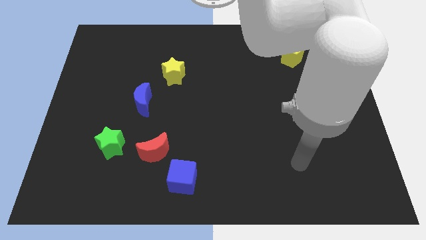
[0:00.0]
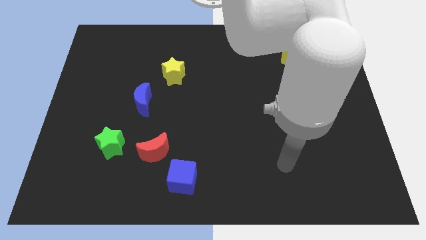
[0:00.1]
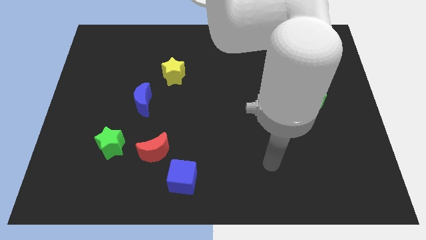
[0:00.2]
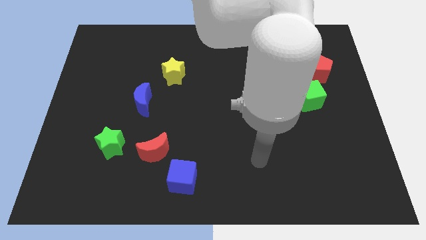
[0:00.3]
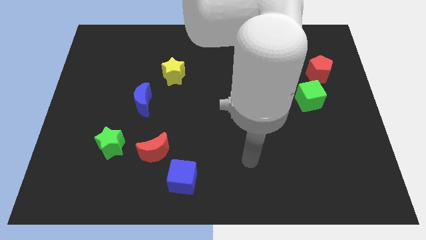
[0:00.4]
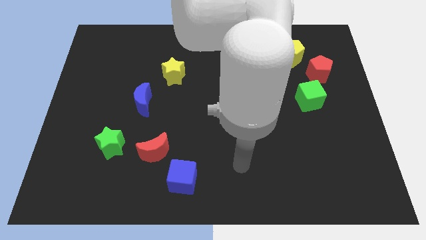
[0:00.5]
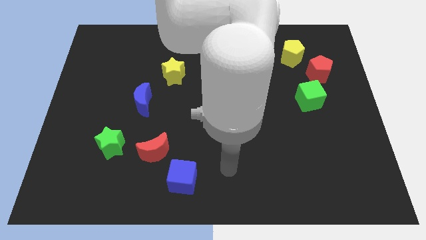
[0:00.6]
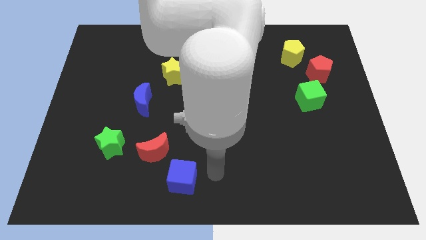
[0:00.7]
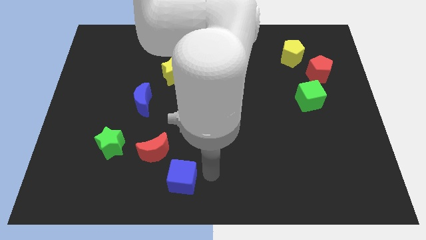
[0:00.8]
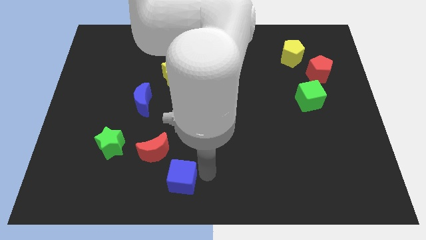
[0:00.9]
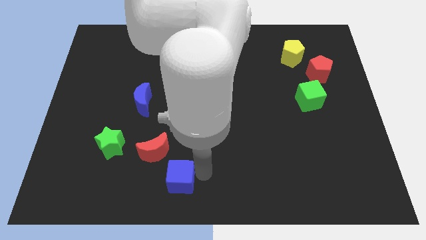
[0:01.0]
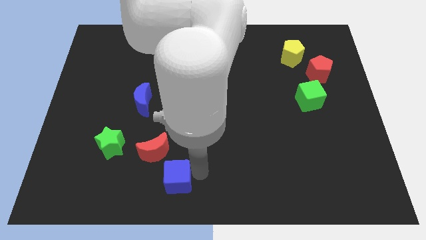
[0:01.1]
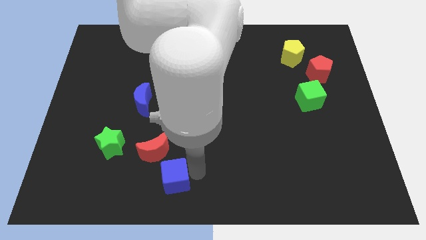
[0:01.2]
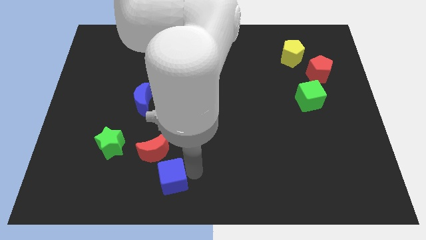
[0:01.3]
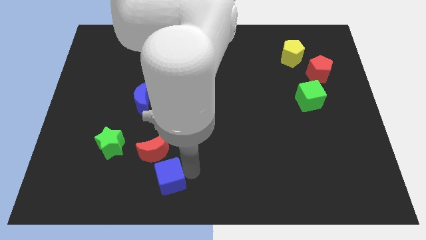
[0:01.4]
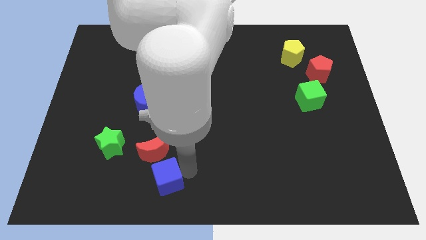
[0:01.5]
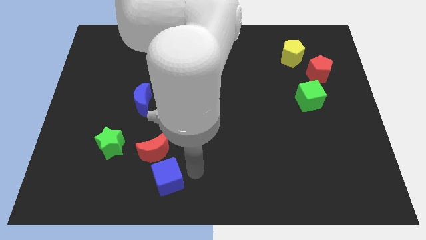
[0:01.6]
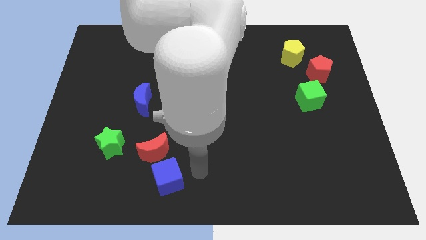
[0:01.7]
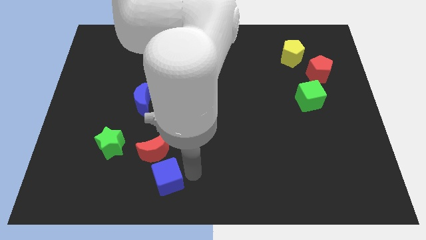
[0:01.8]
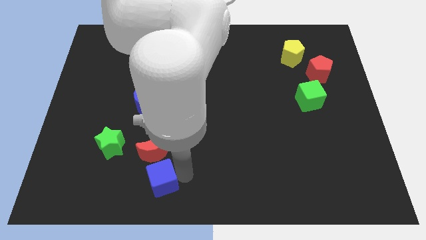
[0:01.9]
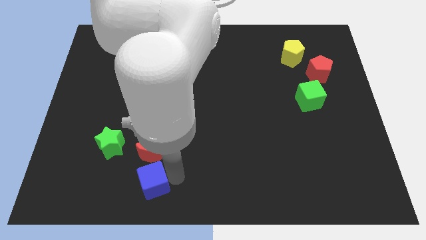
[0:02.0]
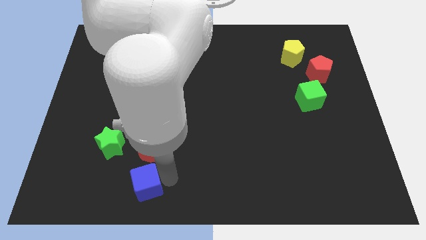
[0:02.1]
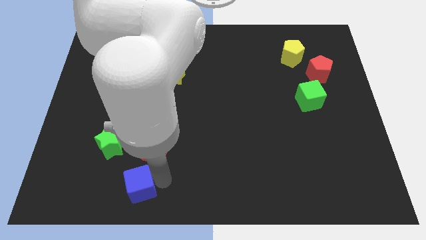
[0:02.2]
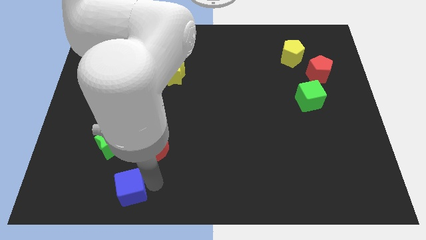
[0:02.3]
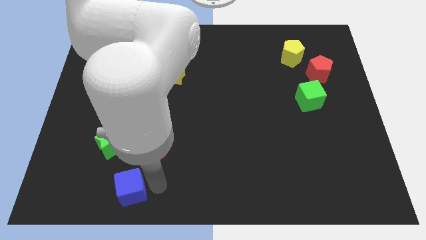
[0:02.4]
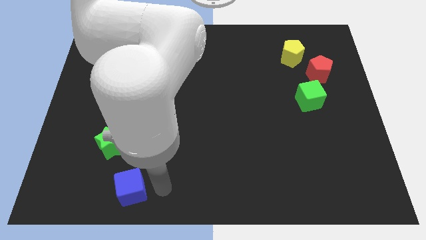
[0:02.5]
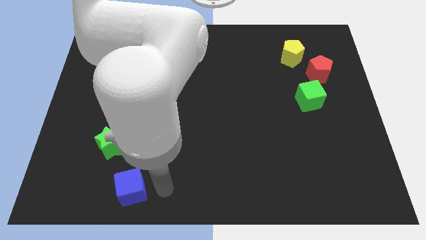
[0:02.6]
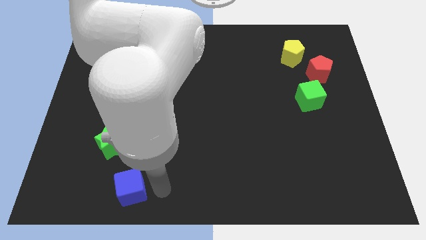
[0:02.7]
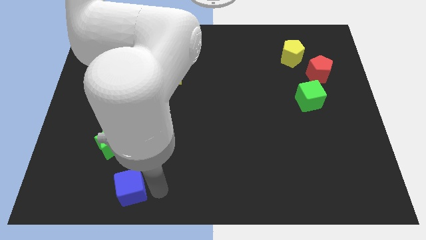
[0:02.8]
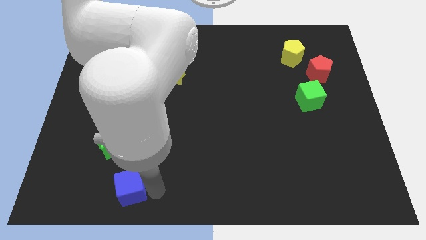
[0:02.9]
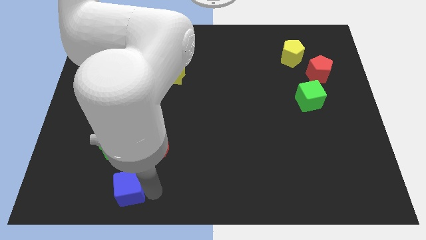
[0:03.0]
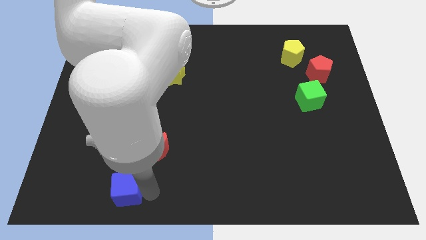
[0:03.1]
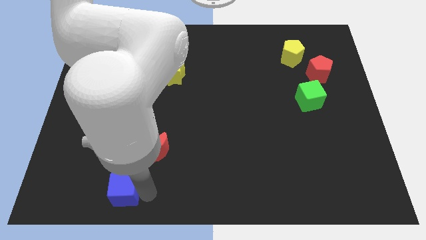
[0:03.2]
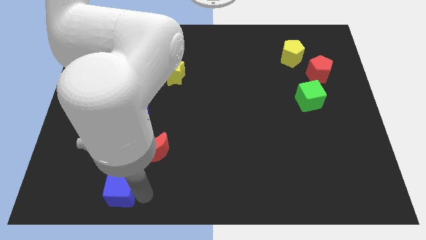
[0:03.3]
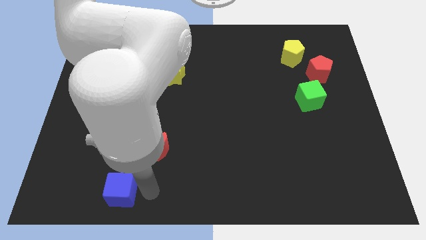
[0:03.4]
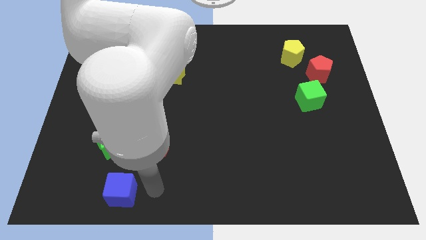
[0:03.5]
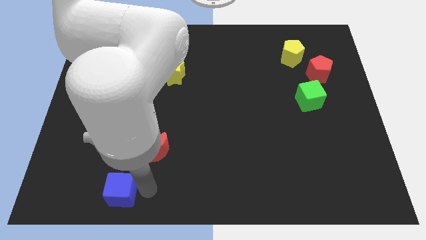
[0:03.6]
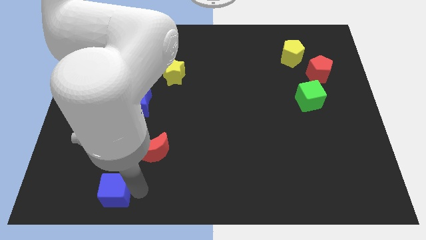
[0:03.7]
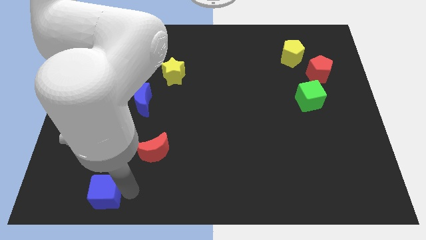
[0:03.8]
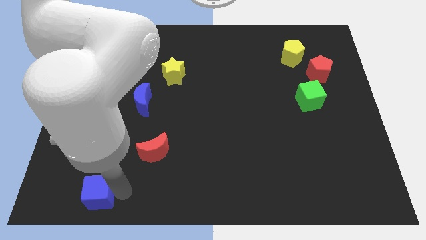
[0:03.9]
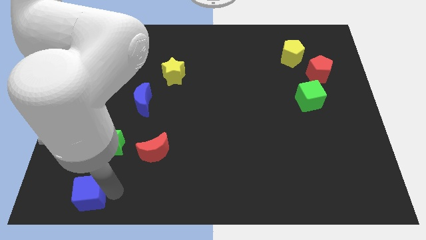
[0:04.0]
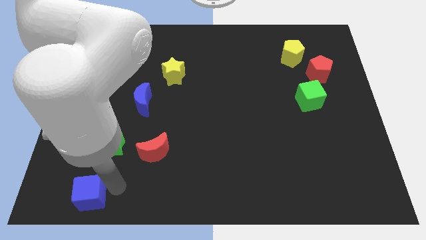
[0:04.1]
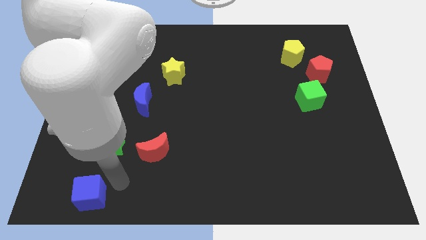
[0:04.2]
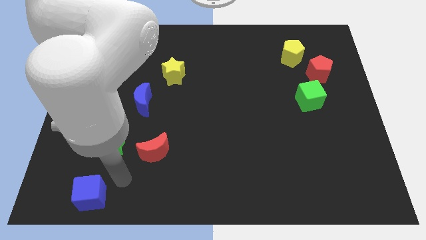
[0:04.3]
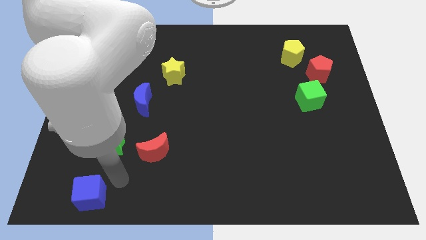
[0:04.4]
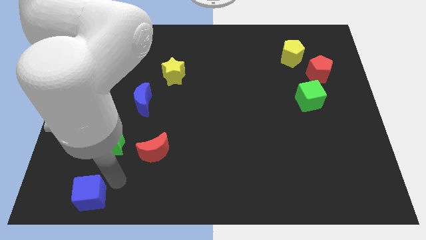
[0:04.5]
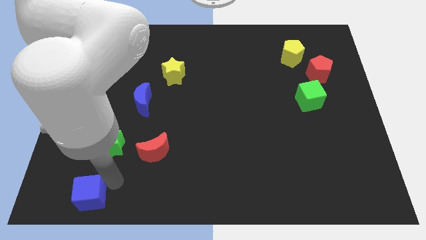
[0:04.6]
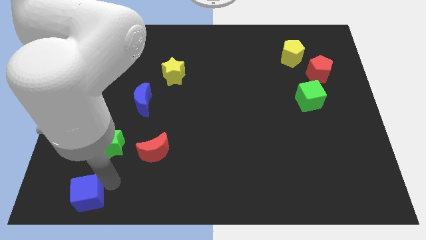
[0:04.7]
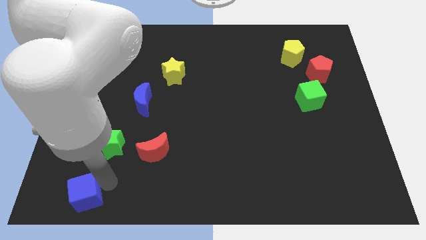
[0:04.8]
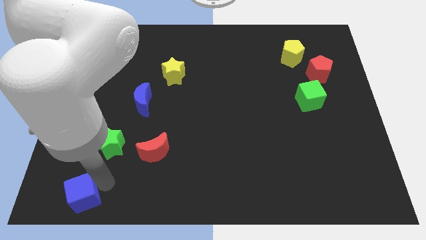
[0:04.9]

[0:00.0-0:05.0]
push the blue cube to the bottom left

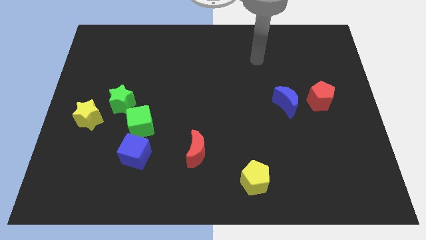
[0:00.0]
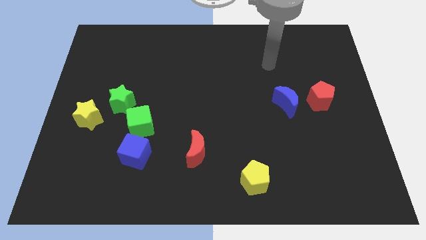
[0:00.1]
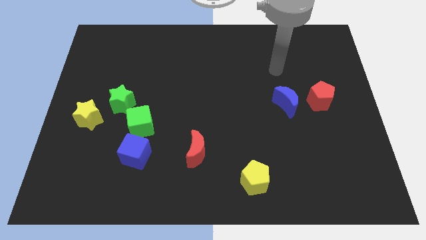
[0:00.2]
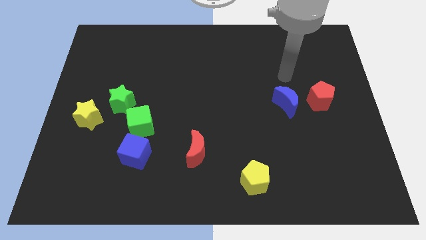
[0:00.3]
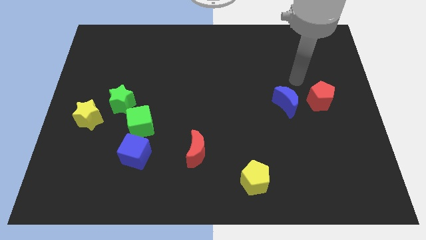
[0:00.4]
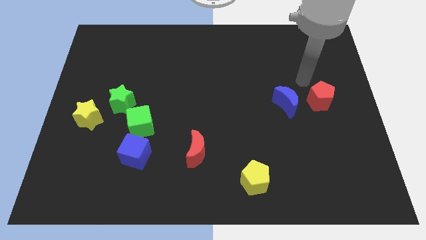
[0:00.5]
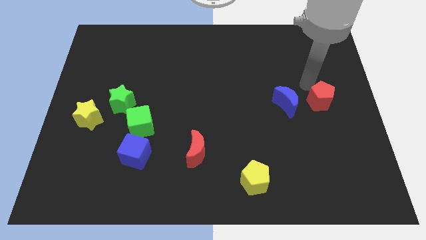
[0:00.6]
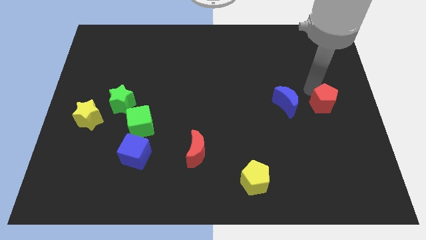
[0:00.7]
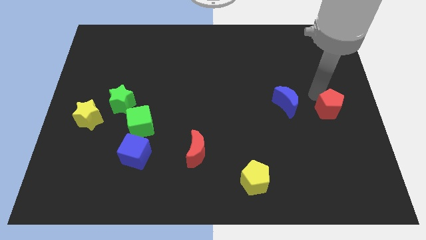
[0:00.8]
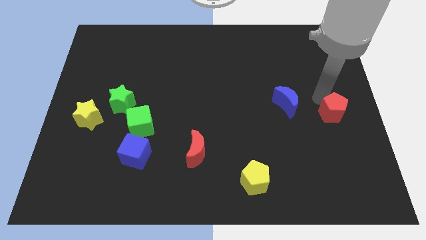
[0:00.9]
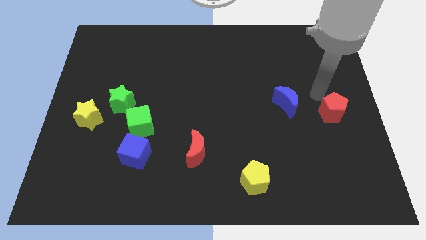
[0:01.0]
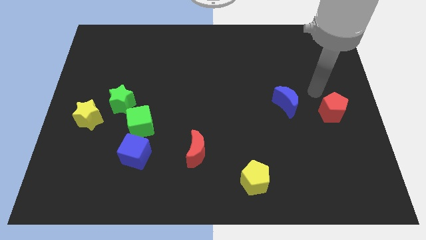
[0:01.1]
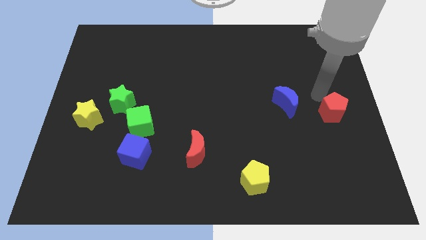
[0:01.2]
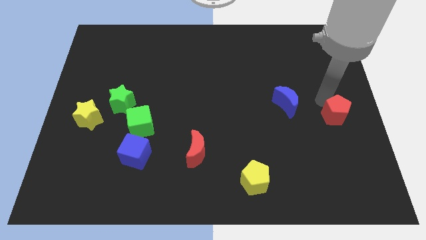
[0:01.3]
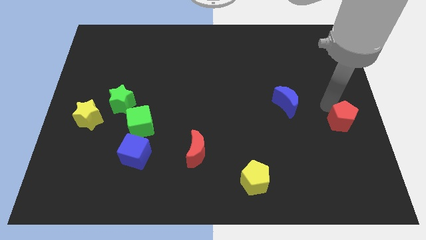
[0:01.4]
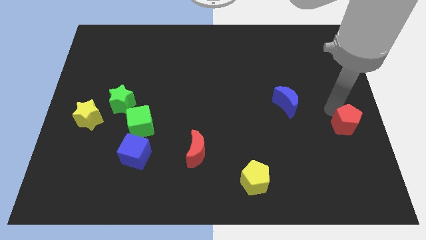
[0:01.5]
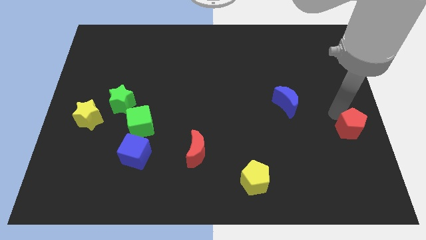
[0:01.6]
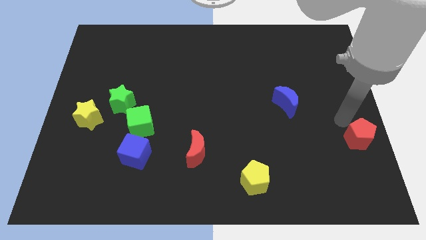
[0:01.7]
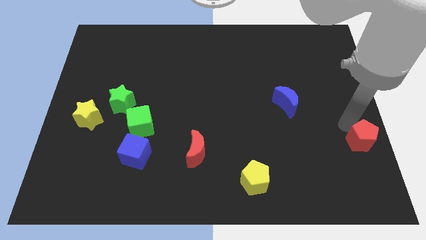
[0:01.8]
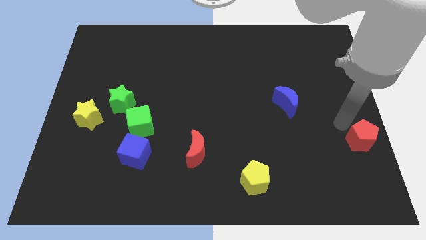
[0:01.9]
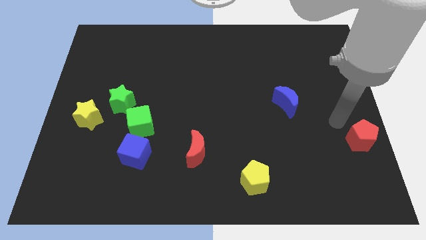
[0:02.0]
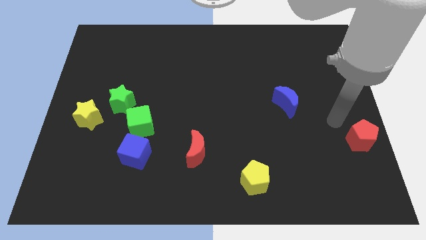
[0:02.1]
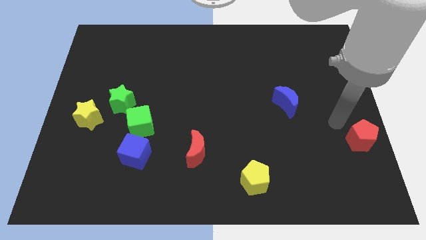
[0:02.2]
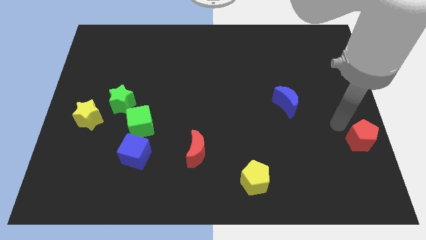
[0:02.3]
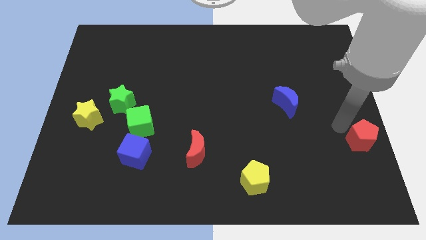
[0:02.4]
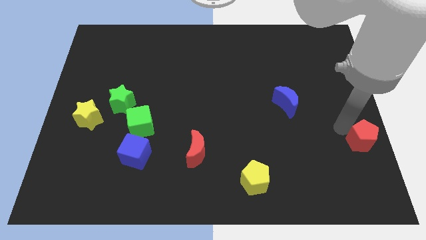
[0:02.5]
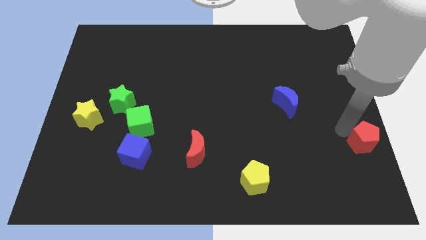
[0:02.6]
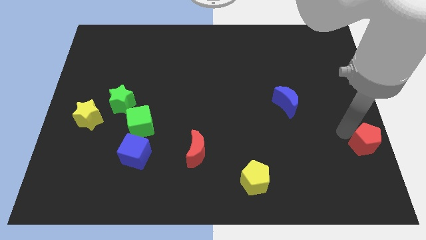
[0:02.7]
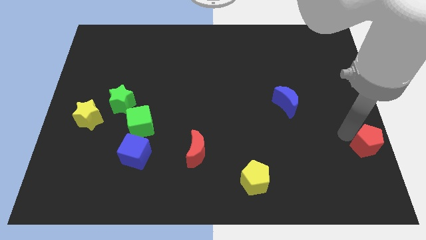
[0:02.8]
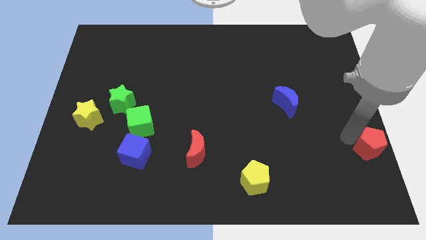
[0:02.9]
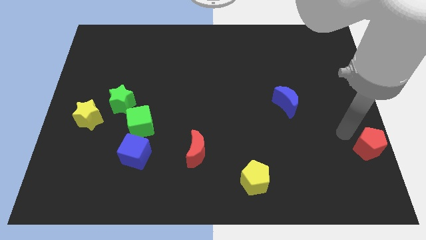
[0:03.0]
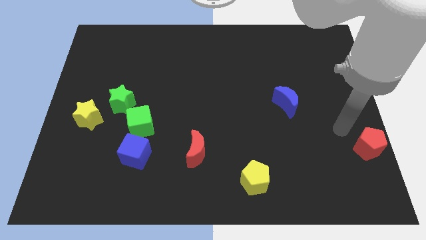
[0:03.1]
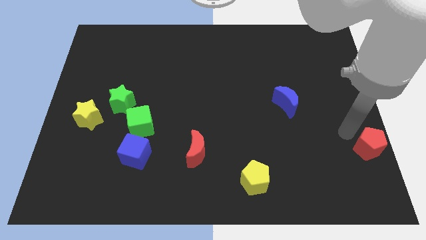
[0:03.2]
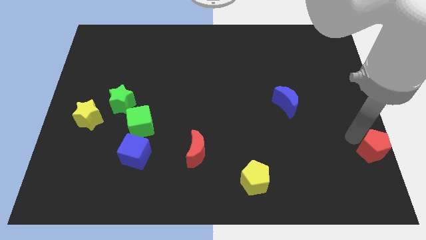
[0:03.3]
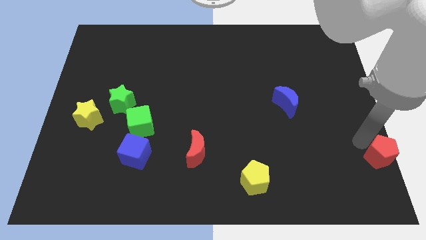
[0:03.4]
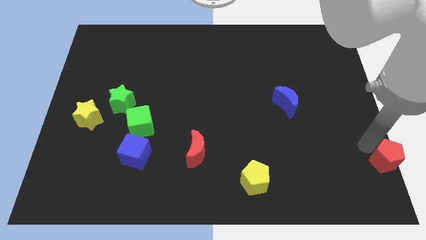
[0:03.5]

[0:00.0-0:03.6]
slide the red pentagon to the bottom right corner
